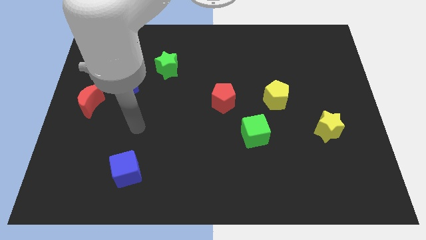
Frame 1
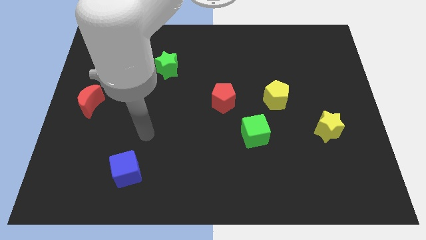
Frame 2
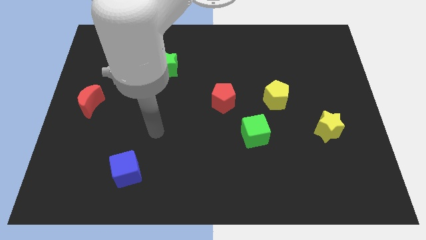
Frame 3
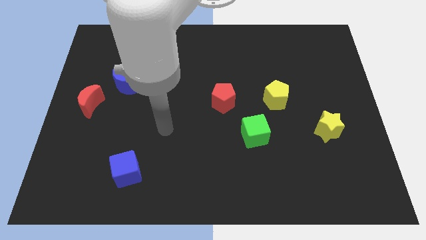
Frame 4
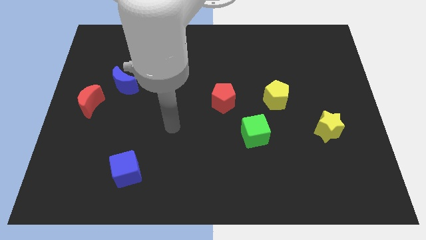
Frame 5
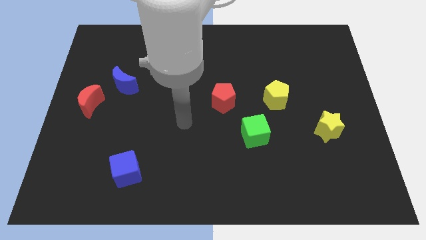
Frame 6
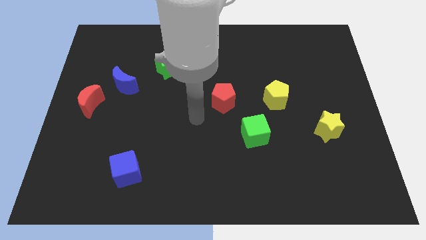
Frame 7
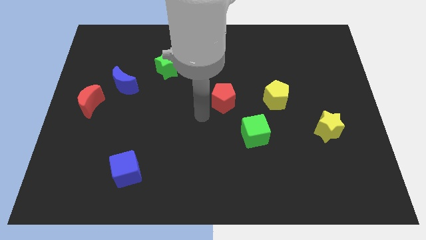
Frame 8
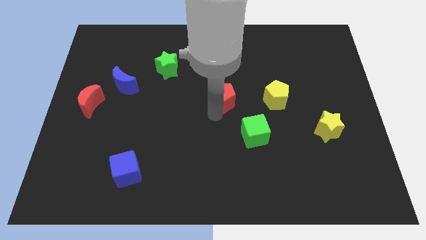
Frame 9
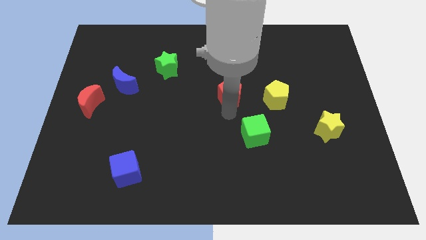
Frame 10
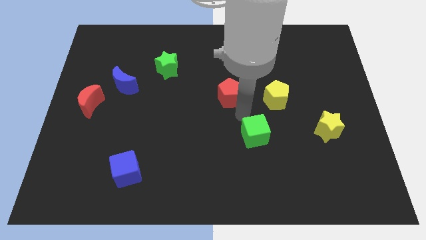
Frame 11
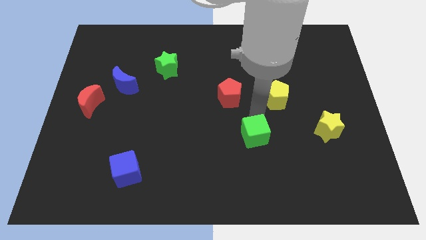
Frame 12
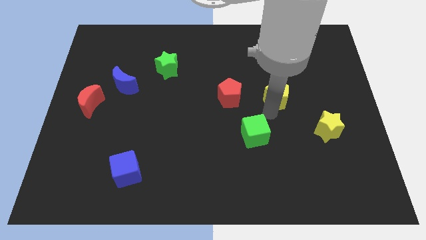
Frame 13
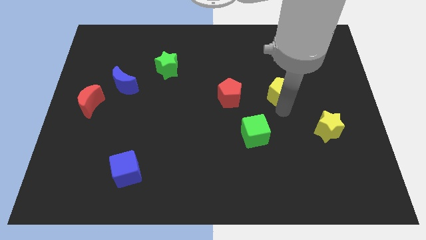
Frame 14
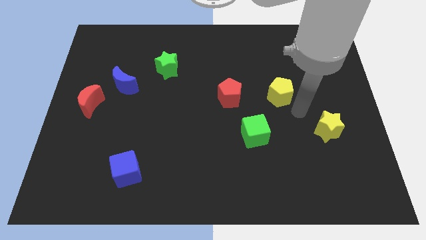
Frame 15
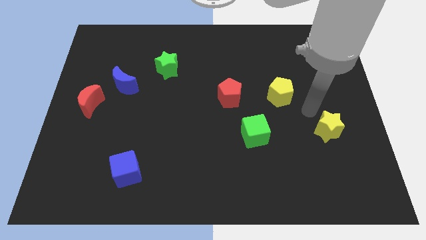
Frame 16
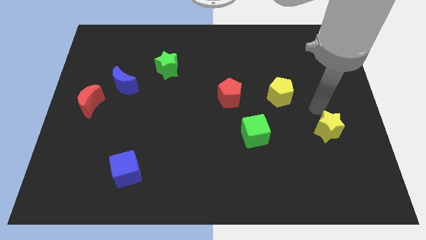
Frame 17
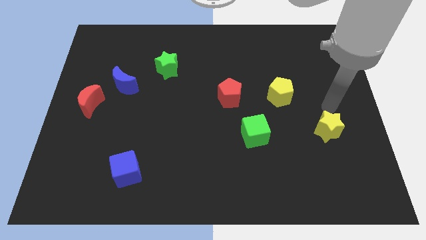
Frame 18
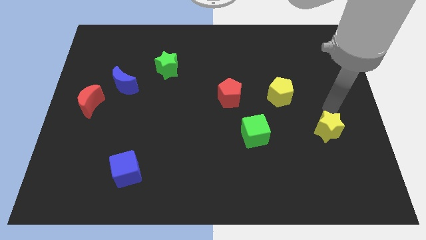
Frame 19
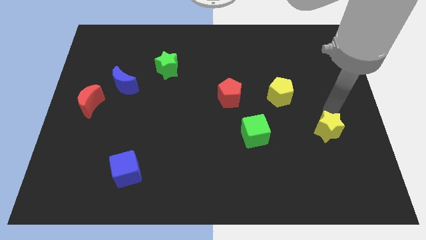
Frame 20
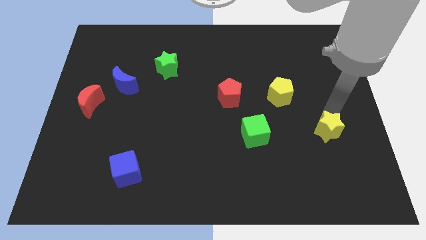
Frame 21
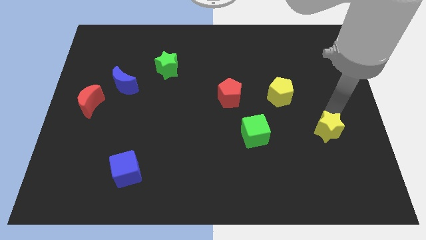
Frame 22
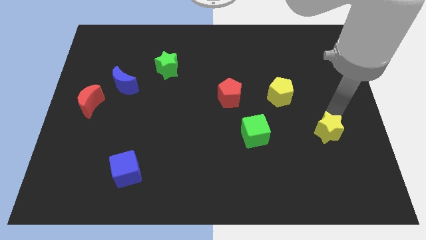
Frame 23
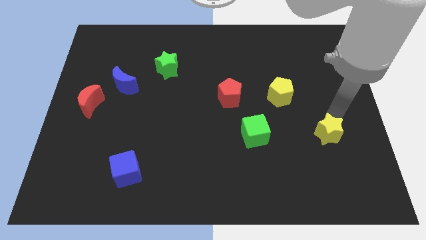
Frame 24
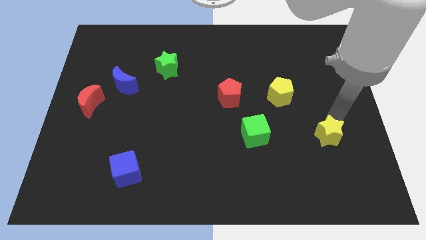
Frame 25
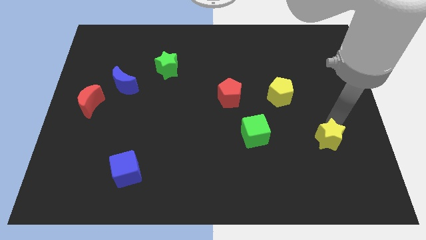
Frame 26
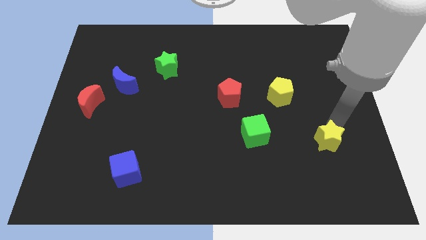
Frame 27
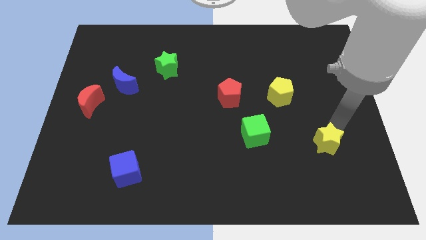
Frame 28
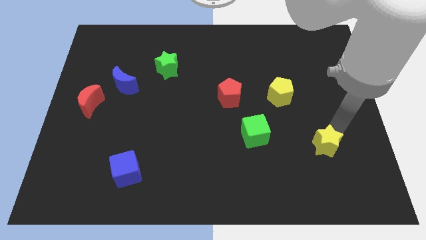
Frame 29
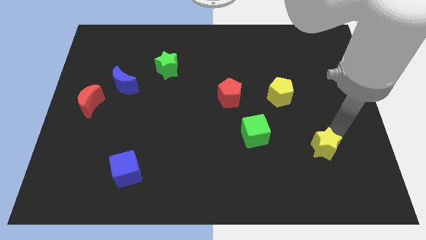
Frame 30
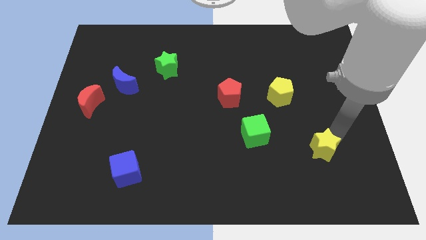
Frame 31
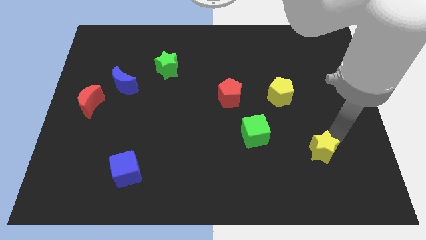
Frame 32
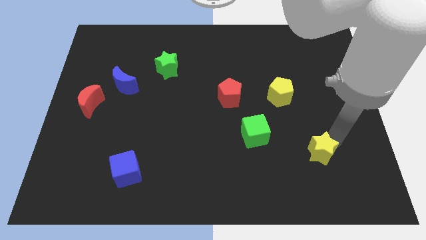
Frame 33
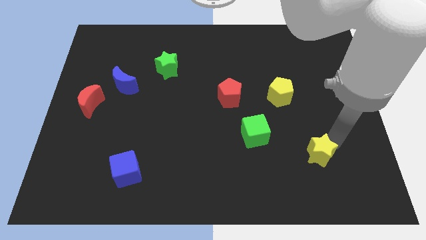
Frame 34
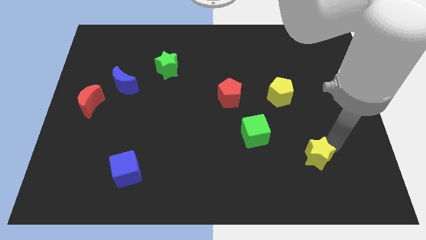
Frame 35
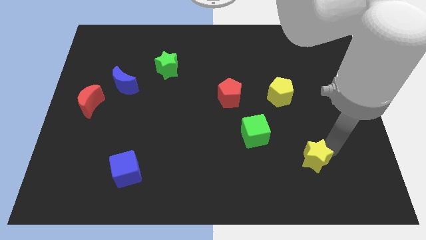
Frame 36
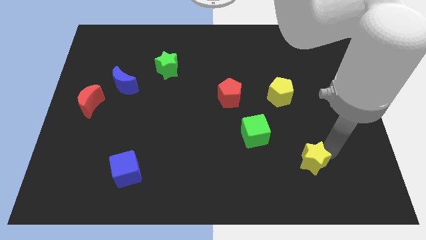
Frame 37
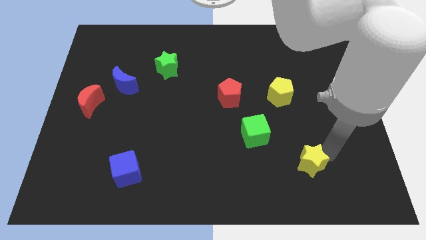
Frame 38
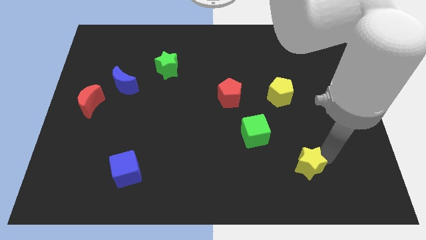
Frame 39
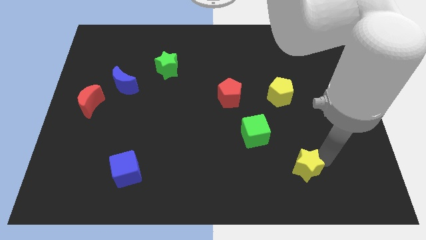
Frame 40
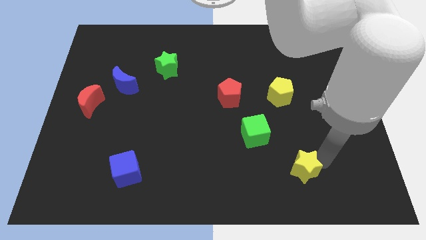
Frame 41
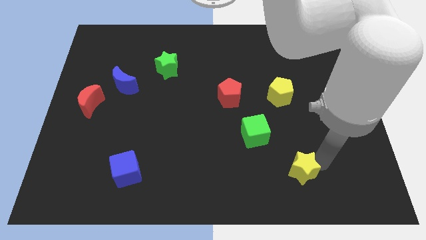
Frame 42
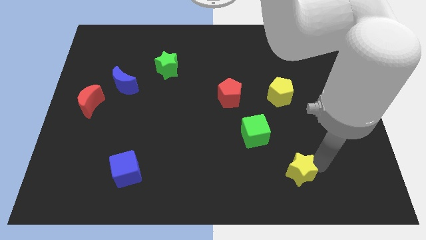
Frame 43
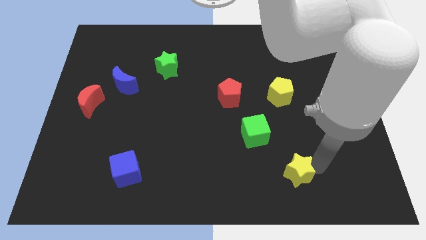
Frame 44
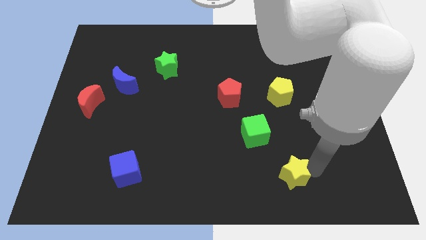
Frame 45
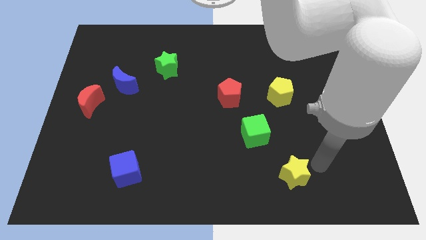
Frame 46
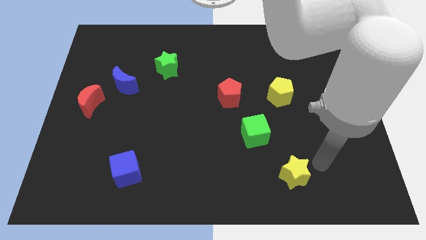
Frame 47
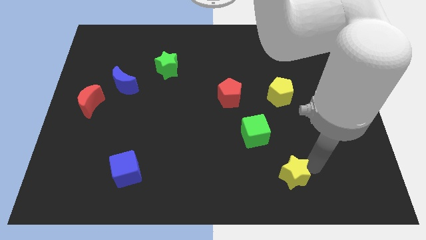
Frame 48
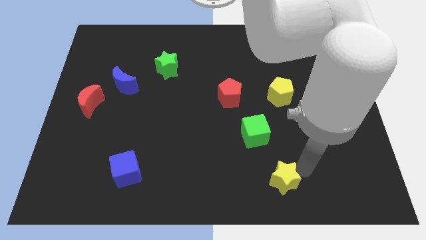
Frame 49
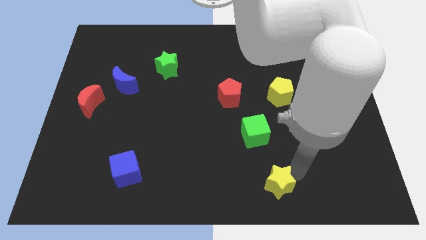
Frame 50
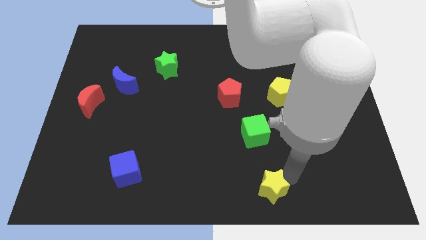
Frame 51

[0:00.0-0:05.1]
slide the yellow star to the bottom side

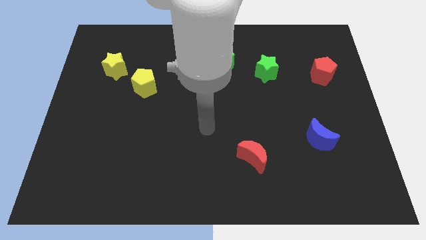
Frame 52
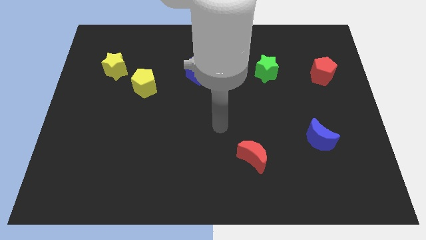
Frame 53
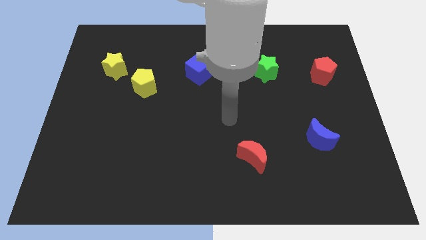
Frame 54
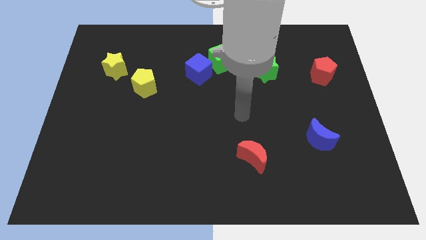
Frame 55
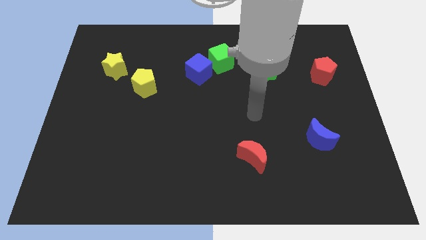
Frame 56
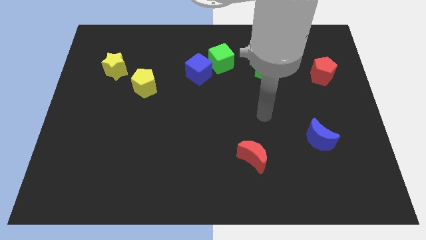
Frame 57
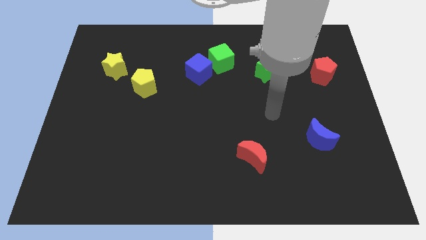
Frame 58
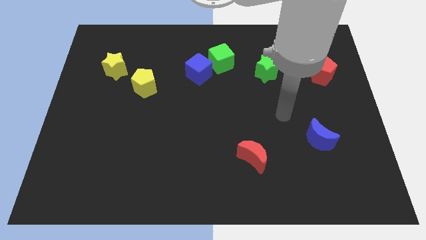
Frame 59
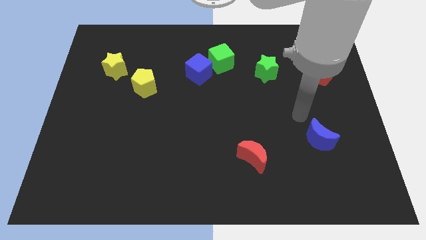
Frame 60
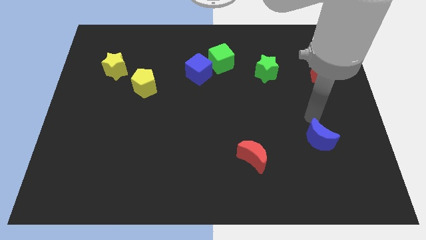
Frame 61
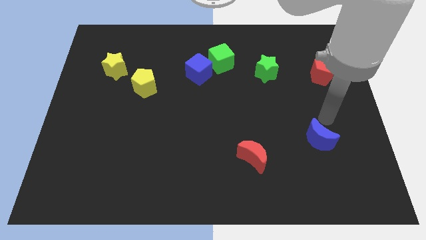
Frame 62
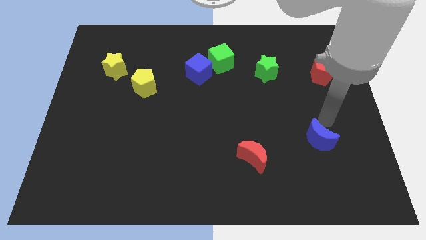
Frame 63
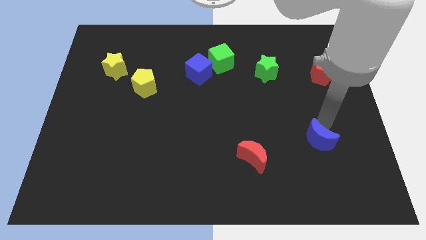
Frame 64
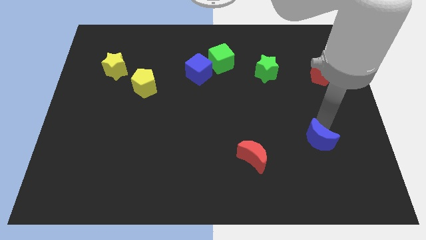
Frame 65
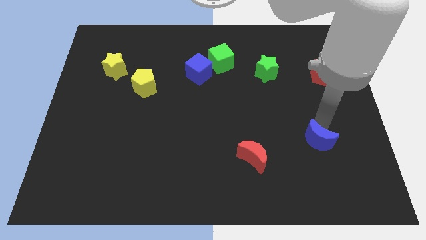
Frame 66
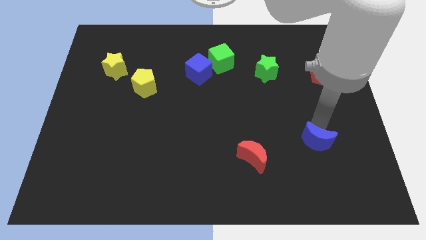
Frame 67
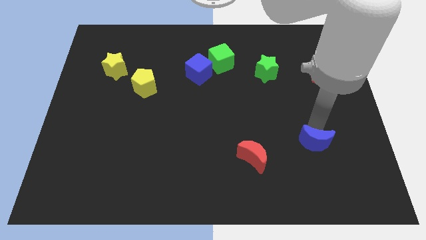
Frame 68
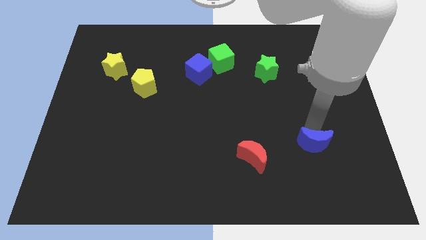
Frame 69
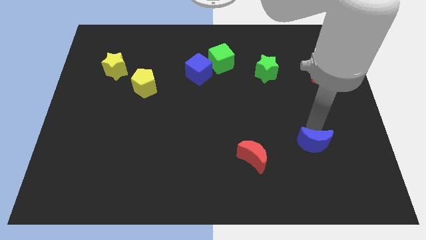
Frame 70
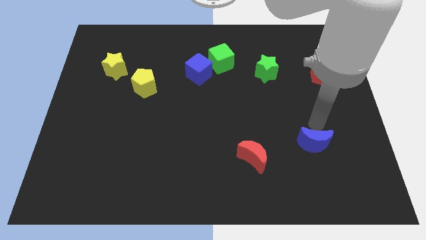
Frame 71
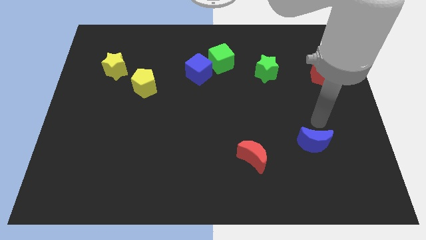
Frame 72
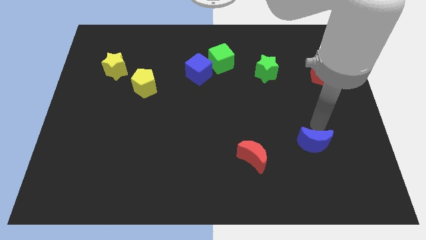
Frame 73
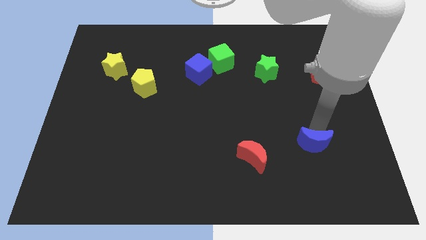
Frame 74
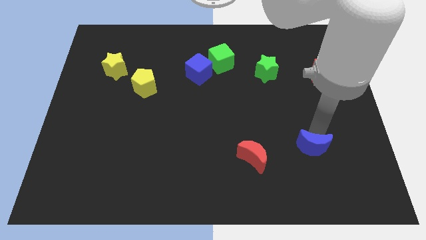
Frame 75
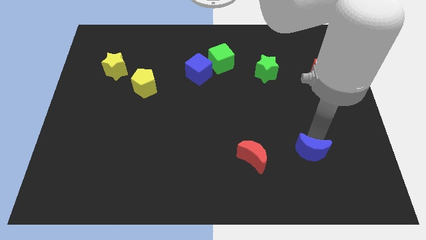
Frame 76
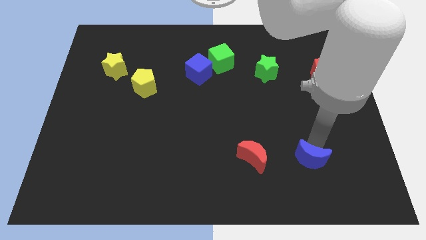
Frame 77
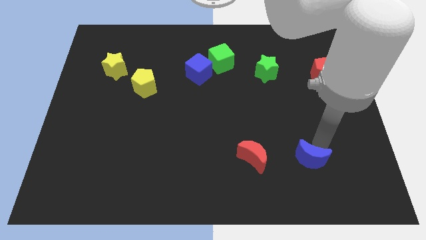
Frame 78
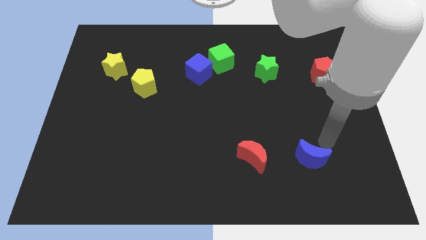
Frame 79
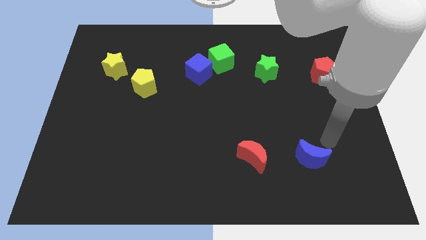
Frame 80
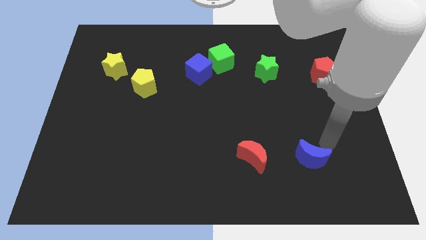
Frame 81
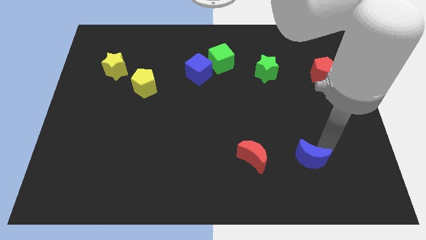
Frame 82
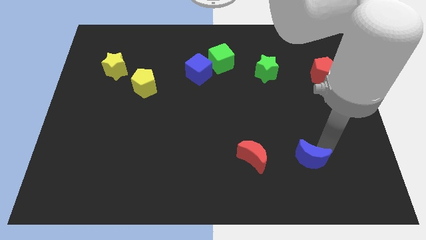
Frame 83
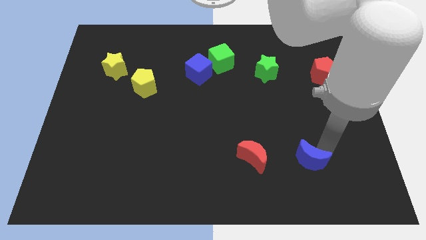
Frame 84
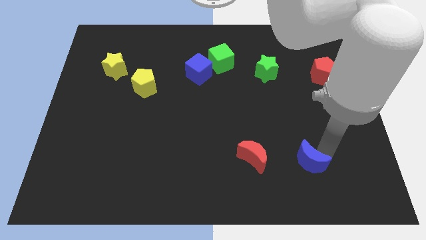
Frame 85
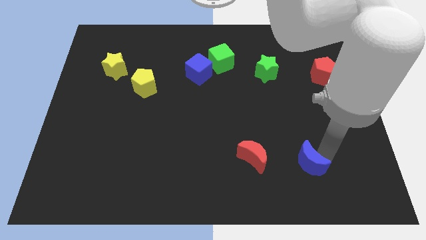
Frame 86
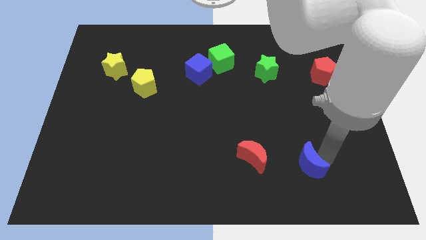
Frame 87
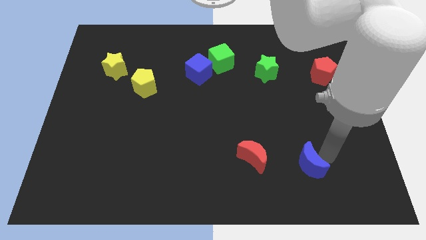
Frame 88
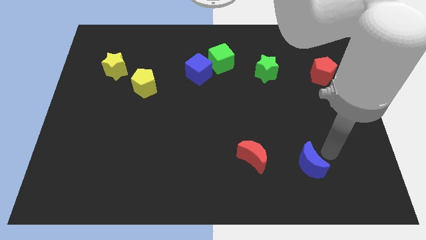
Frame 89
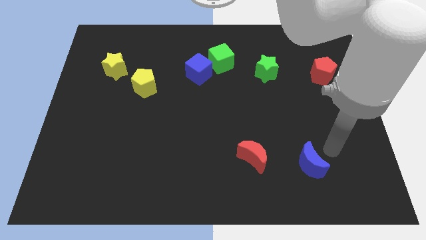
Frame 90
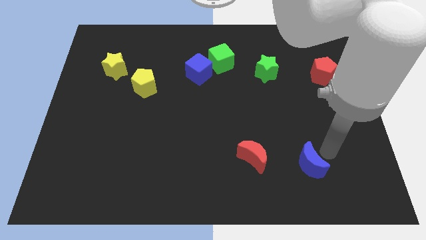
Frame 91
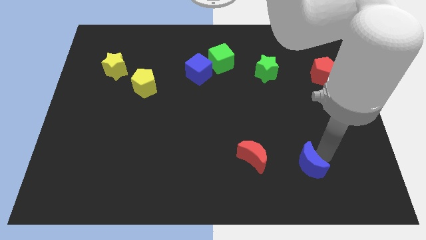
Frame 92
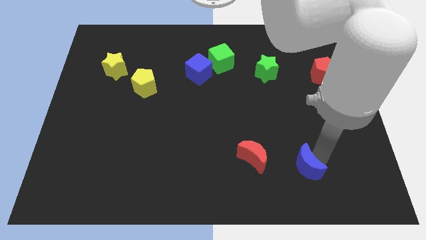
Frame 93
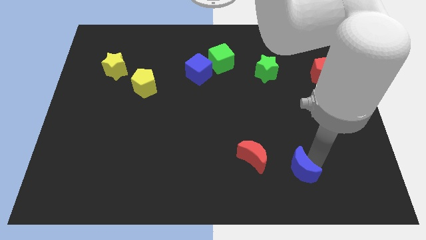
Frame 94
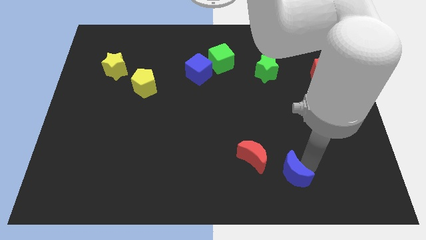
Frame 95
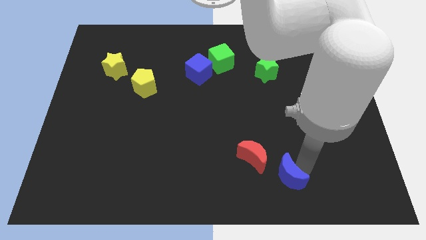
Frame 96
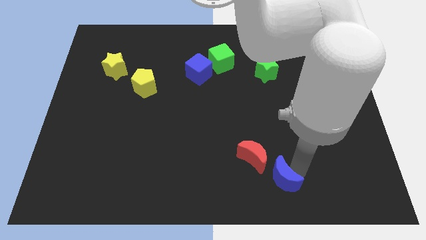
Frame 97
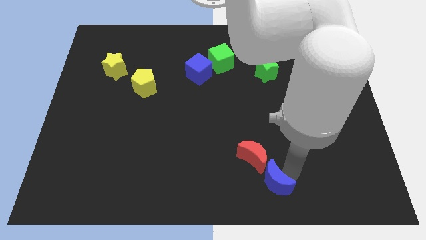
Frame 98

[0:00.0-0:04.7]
slide the blue moon to the bottom side
